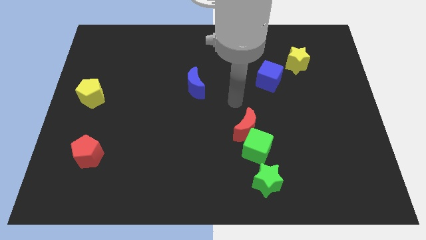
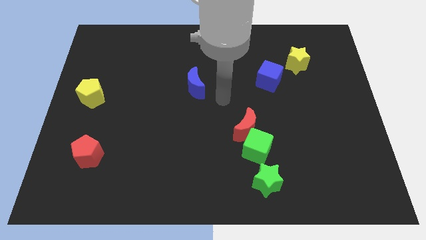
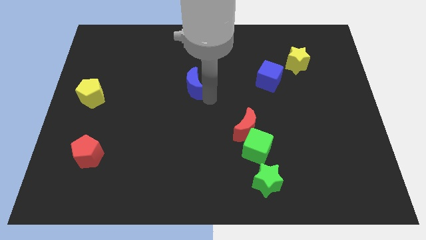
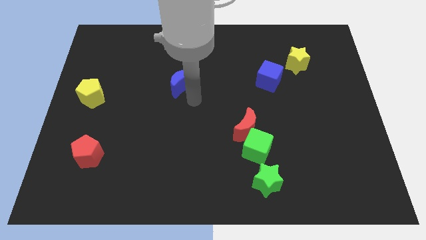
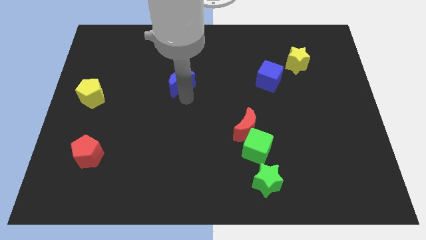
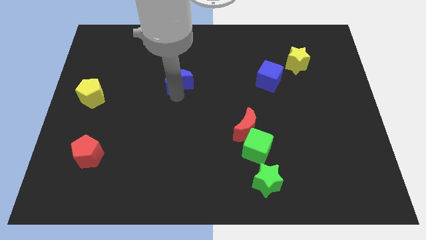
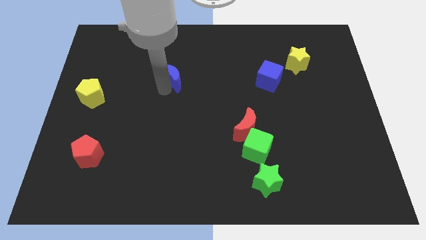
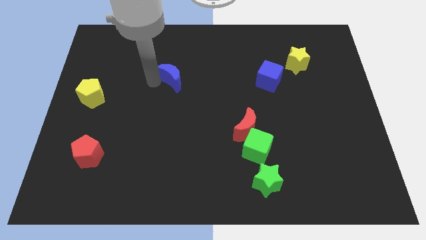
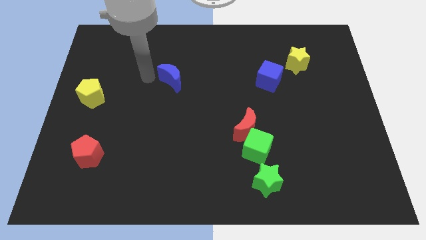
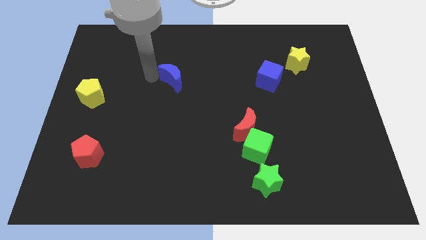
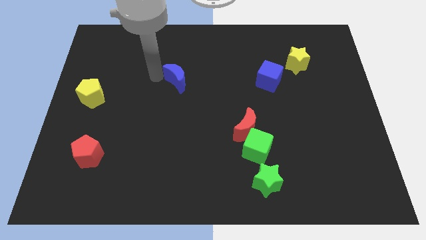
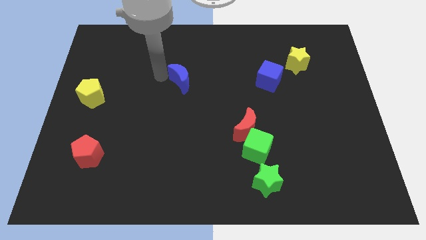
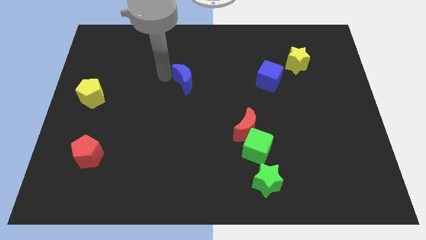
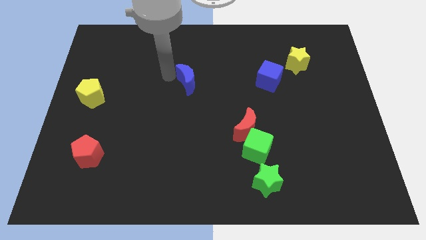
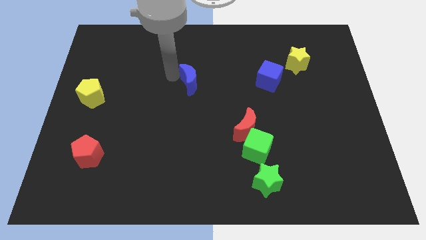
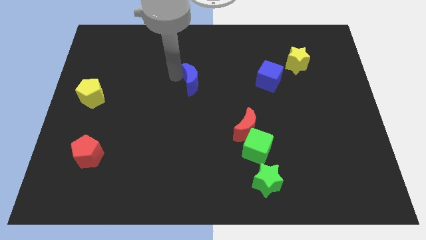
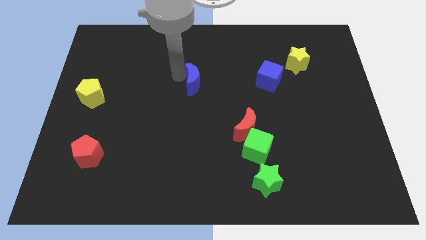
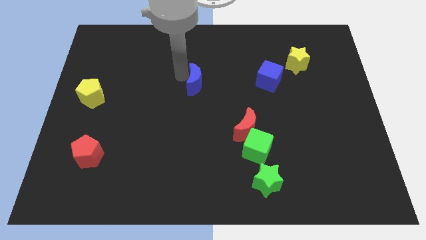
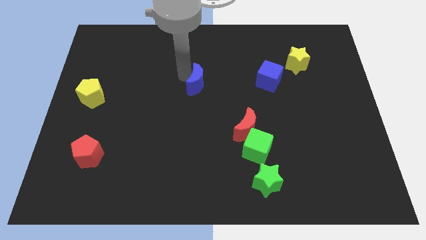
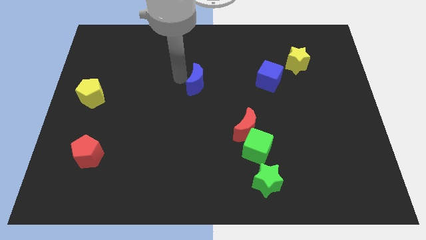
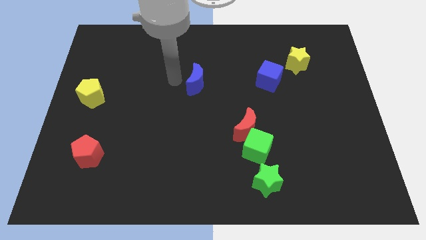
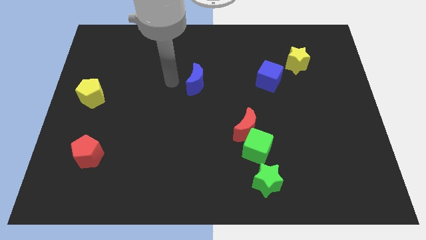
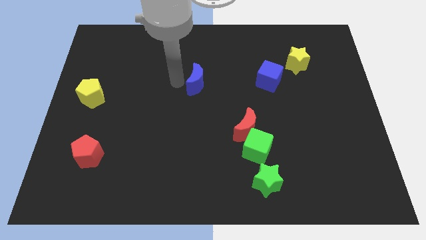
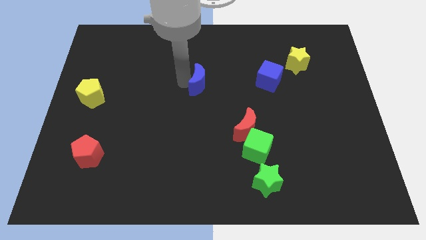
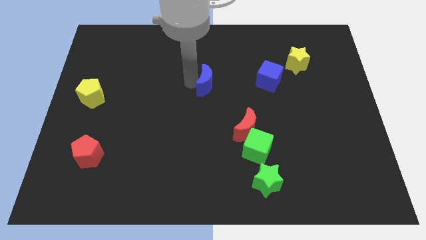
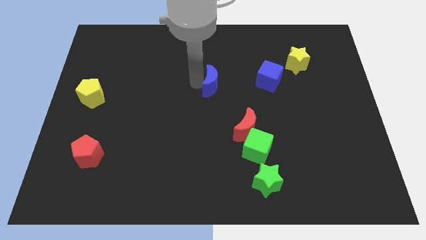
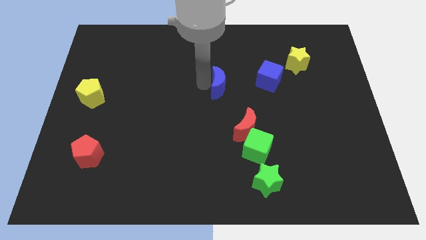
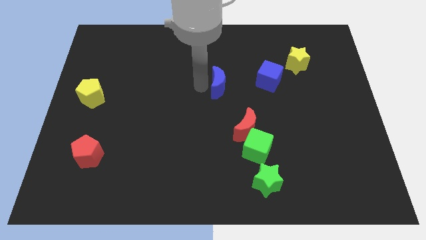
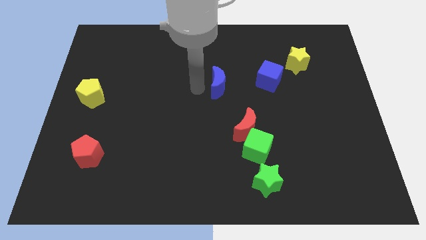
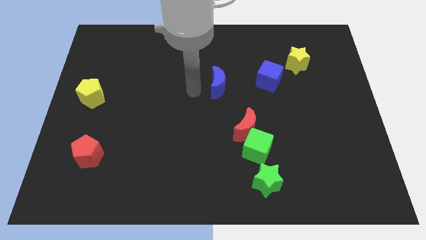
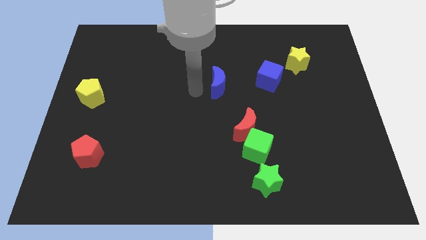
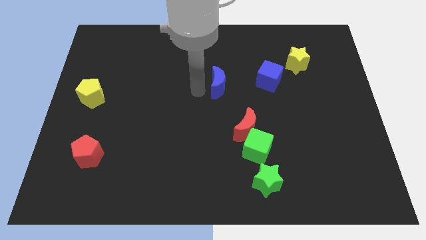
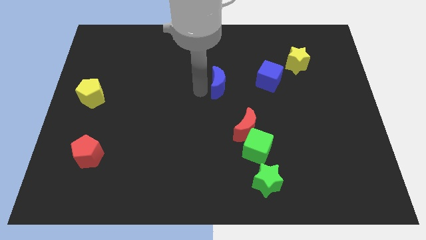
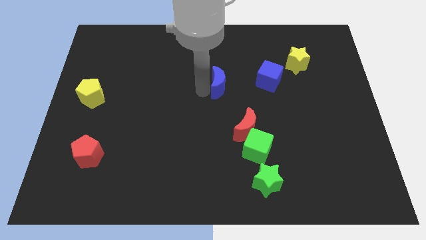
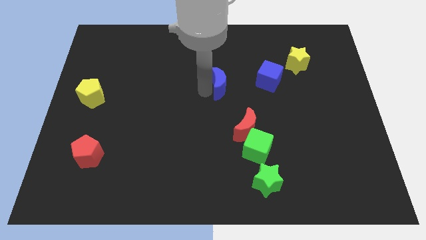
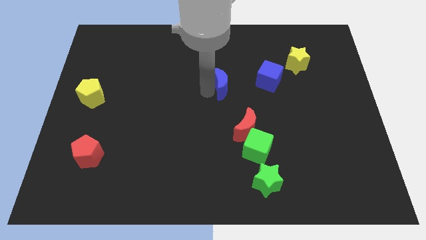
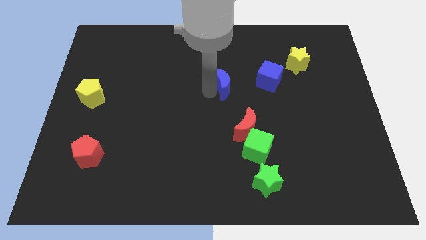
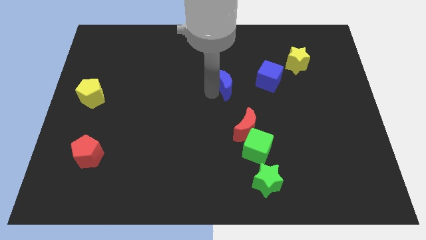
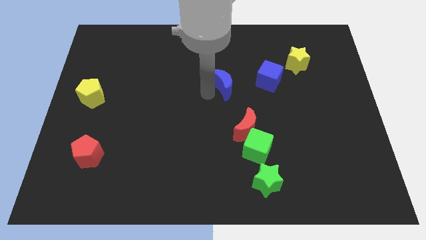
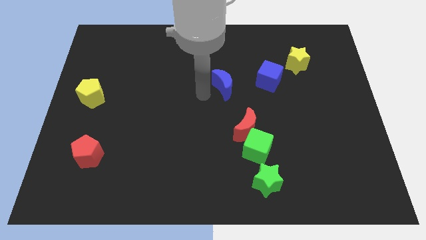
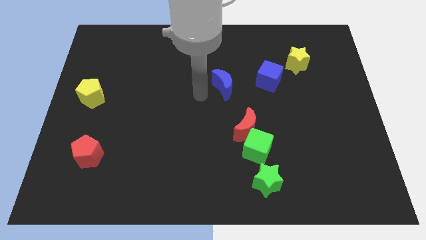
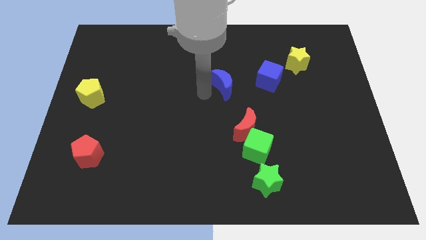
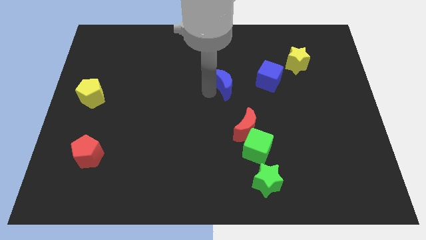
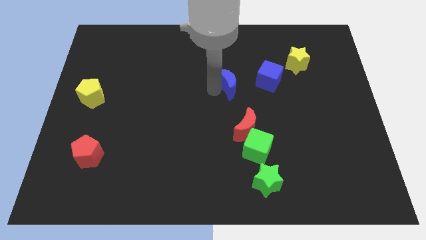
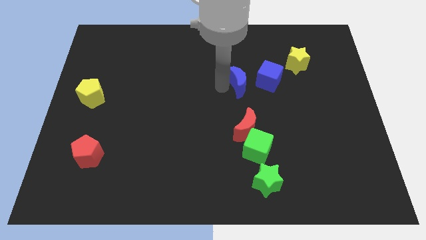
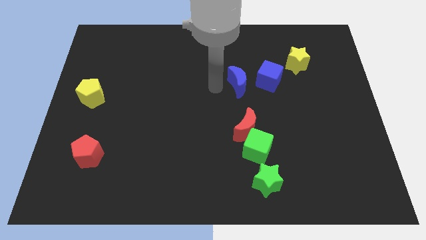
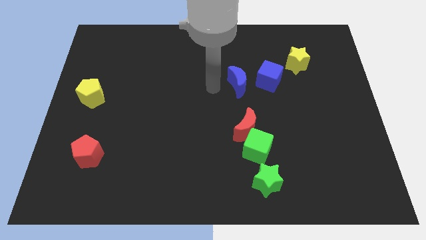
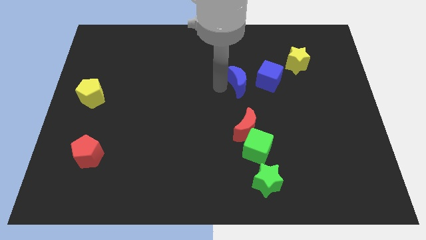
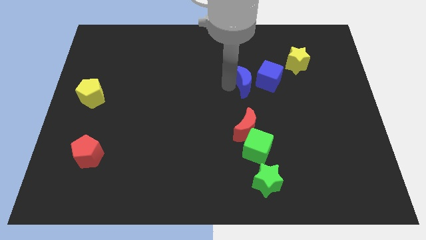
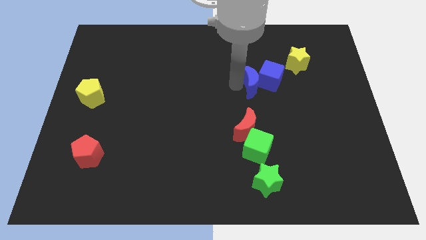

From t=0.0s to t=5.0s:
move the blue moon close to the blue cube

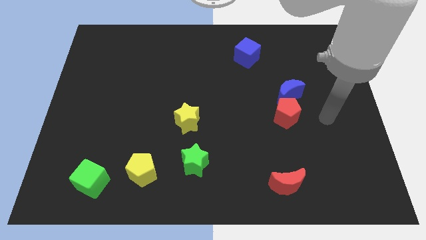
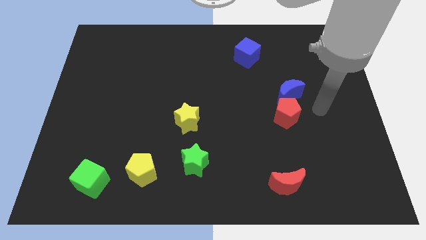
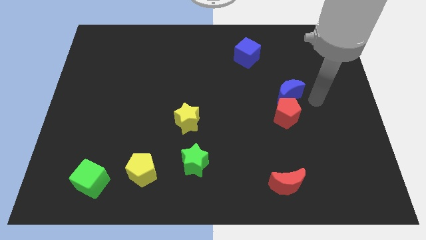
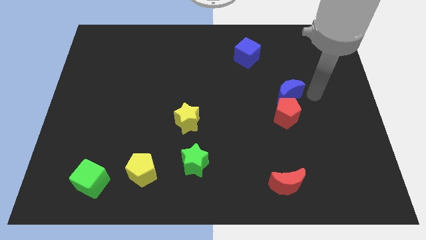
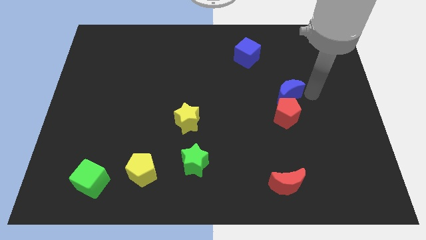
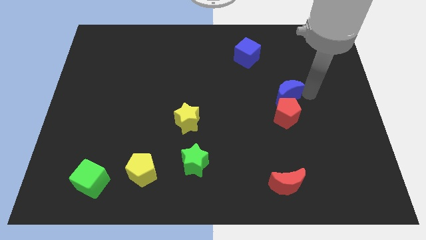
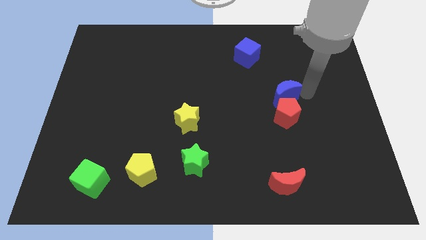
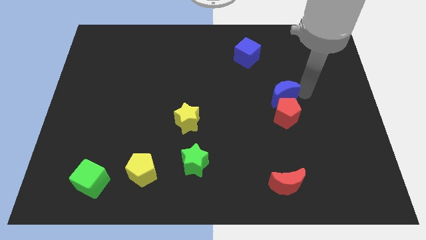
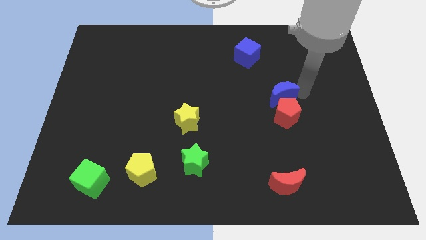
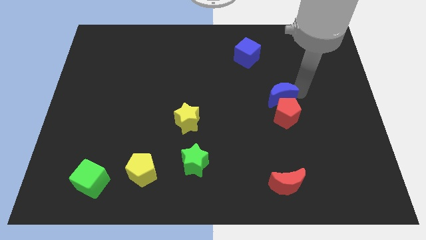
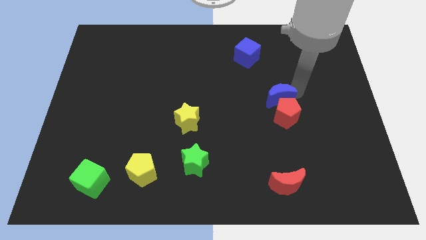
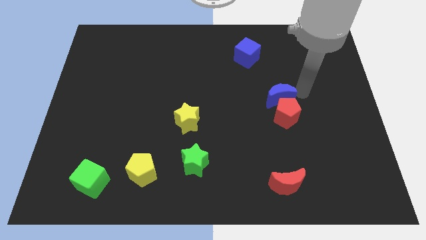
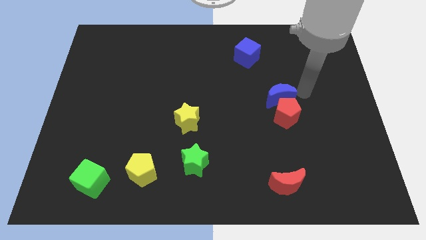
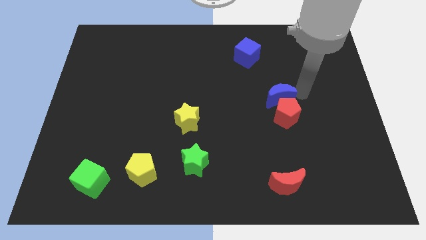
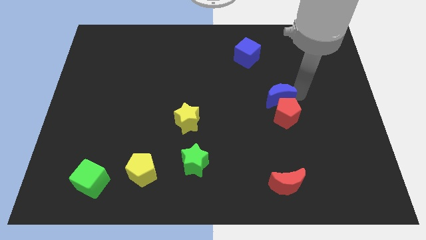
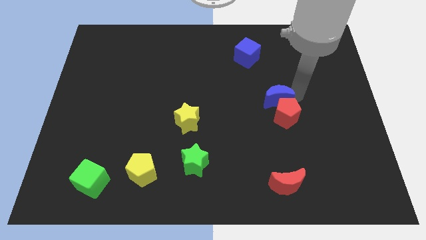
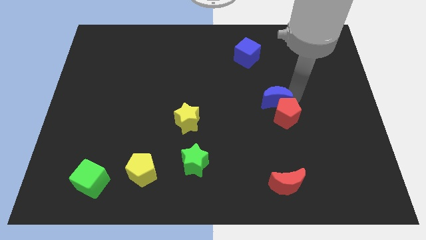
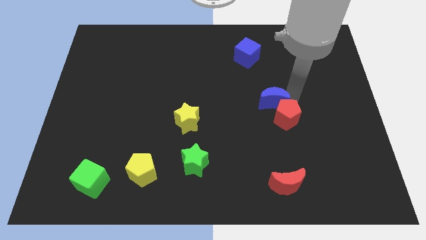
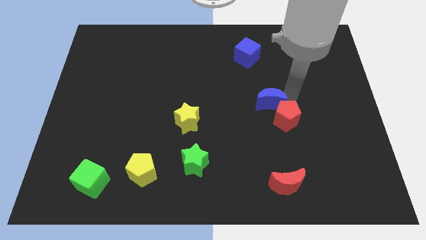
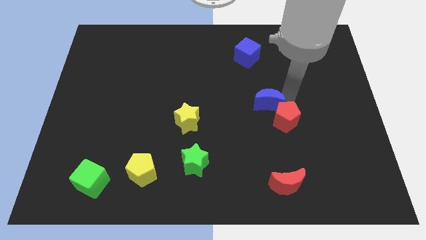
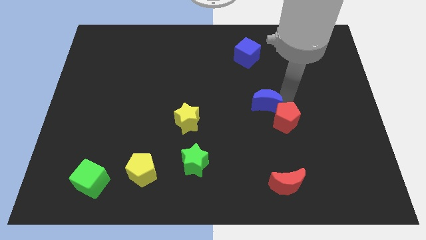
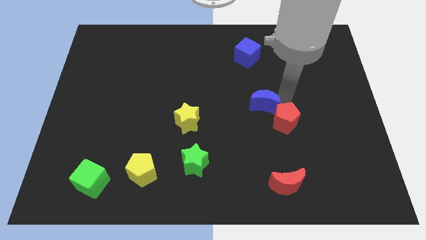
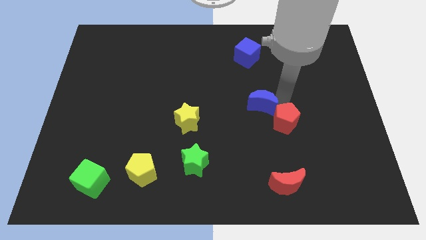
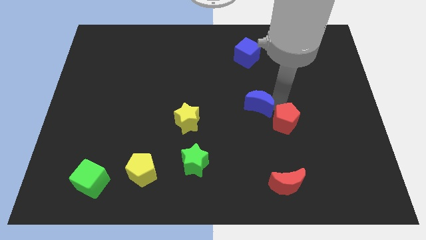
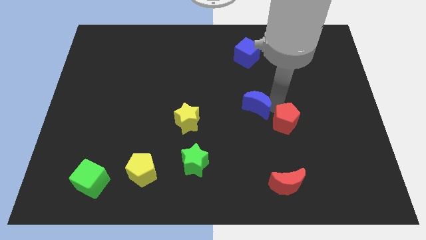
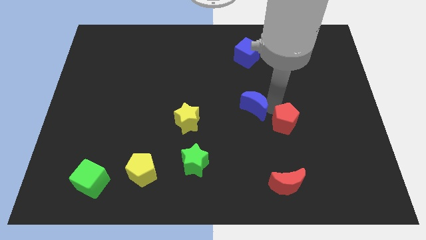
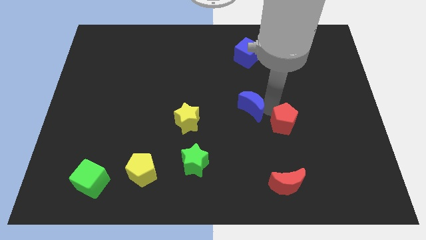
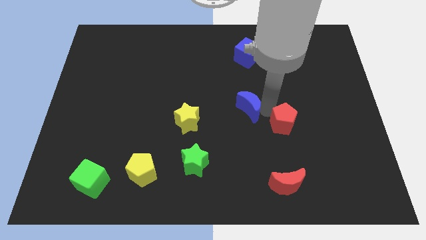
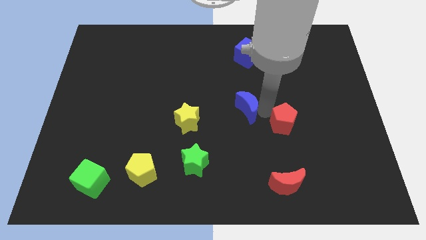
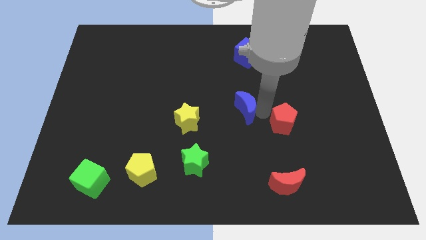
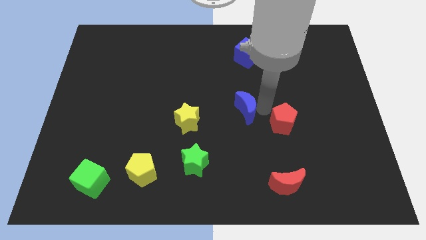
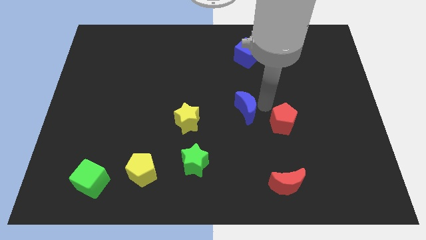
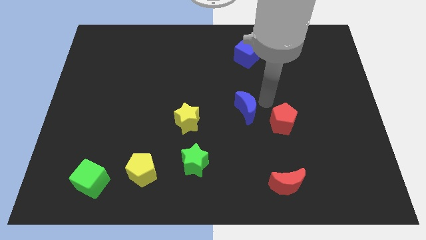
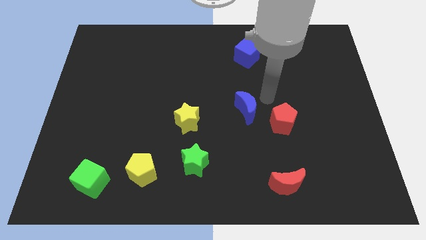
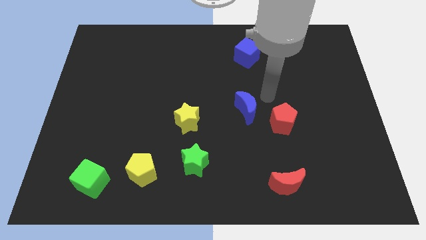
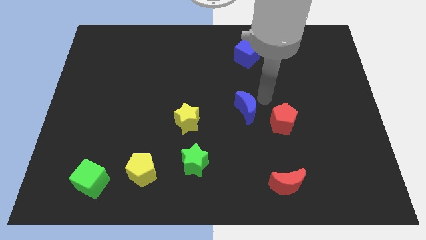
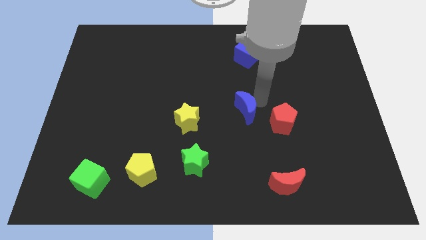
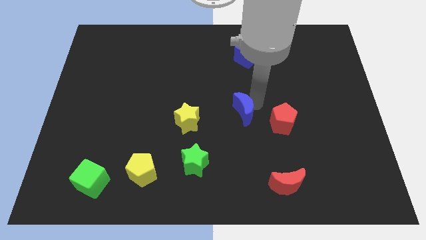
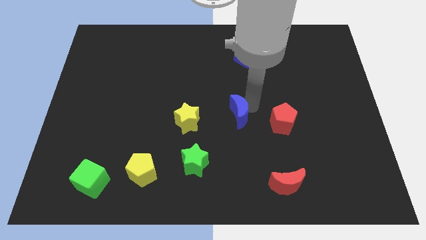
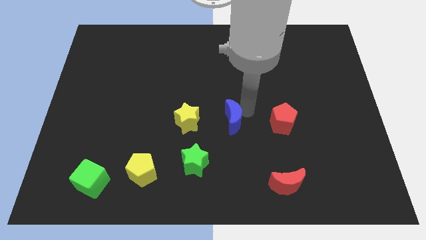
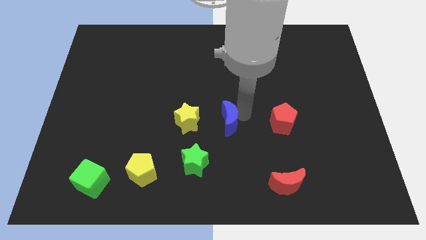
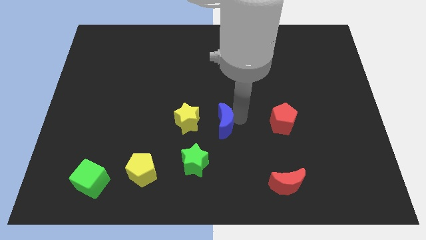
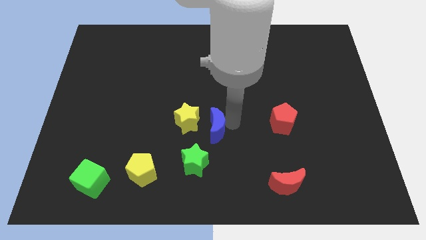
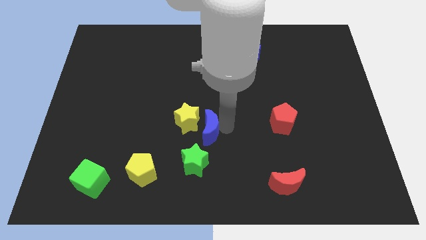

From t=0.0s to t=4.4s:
move the blue moon to the yellow star
